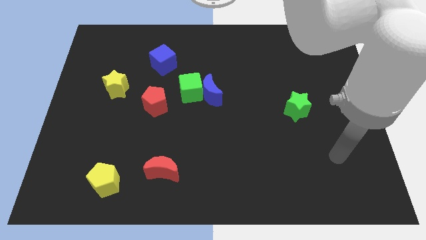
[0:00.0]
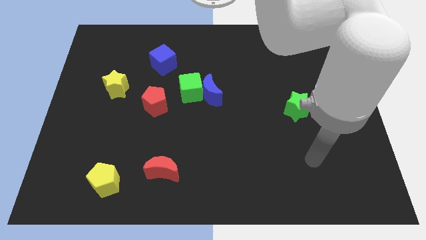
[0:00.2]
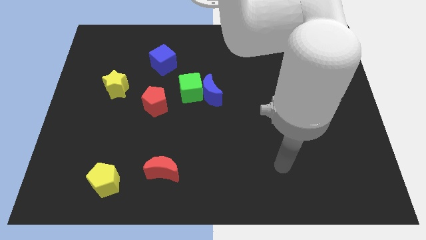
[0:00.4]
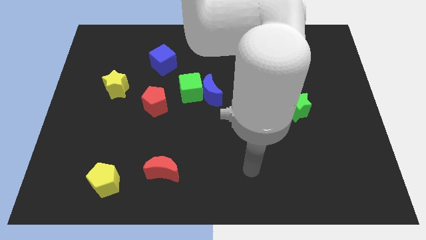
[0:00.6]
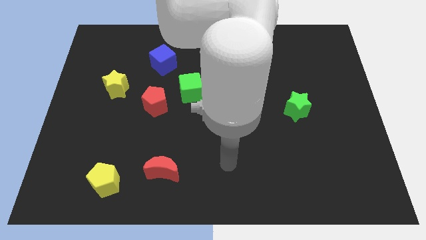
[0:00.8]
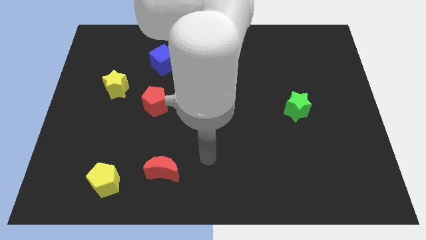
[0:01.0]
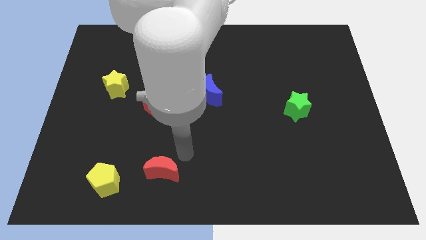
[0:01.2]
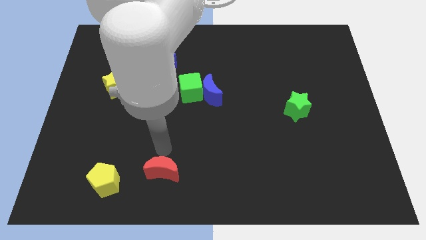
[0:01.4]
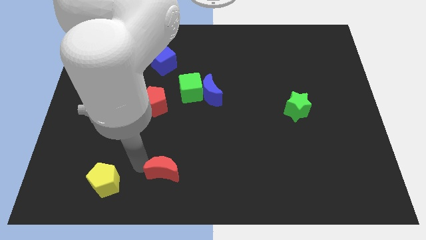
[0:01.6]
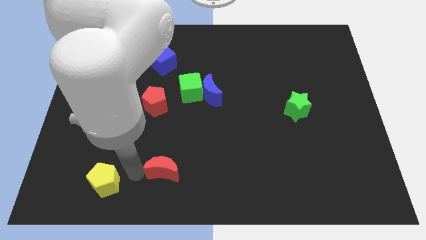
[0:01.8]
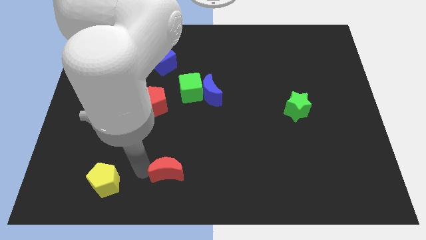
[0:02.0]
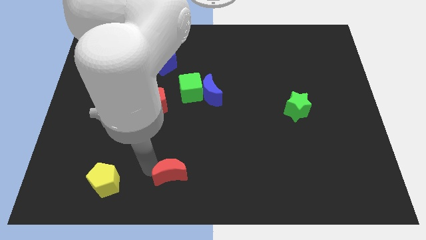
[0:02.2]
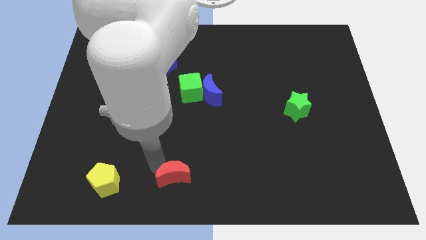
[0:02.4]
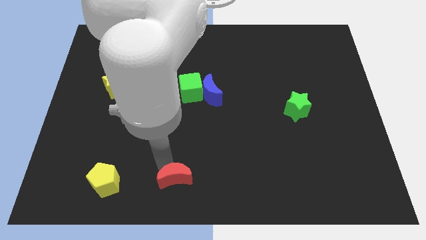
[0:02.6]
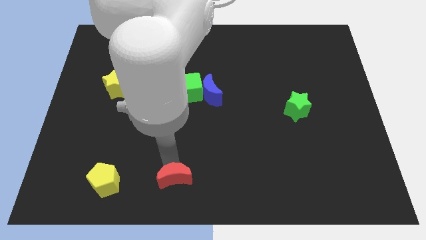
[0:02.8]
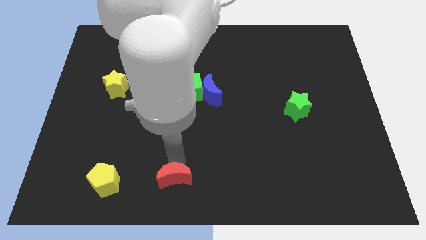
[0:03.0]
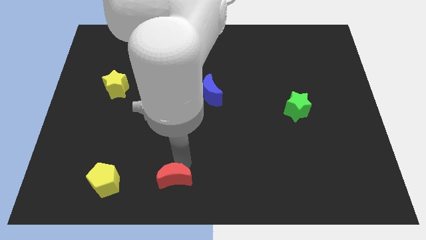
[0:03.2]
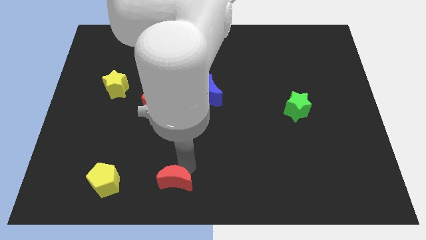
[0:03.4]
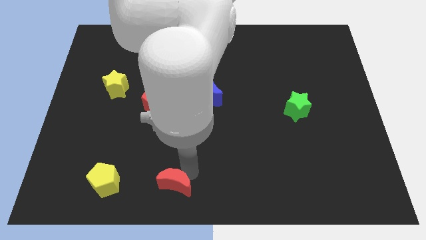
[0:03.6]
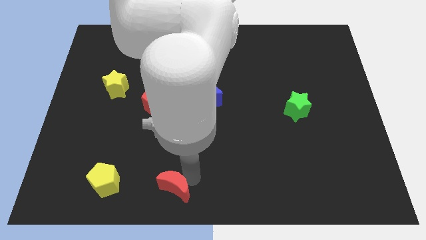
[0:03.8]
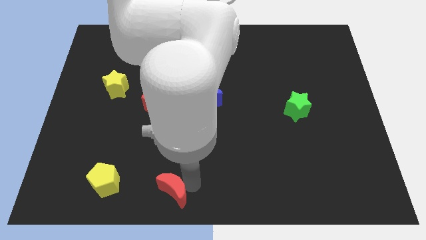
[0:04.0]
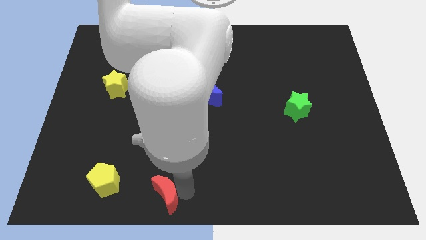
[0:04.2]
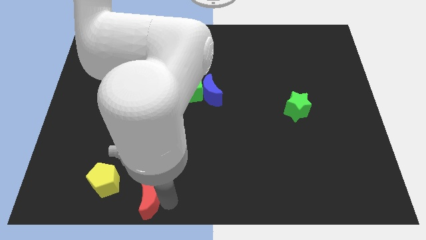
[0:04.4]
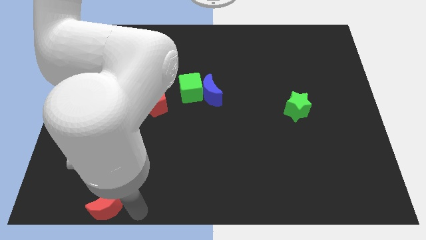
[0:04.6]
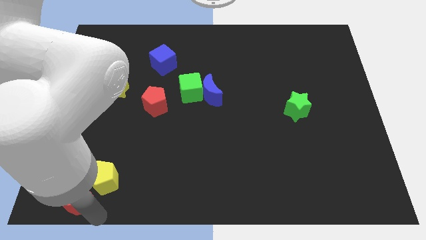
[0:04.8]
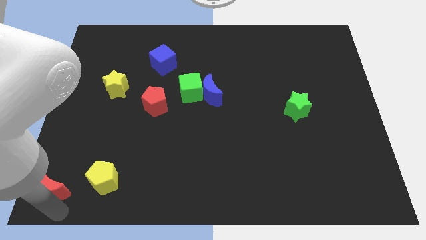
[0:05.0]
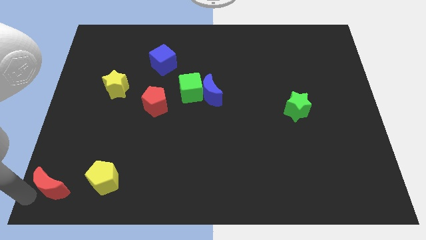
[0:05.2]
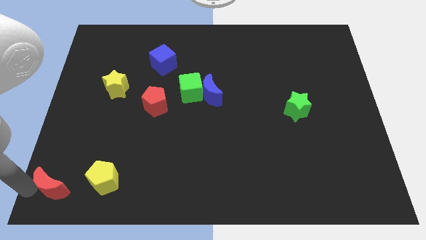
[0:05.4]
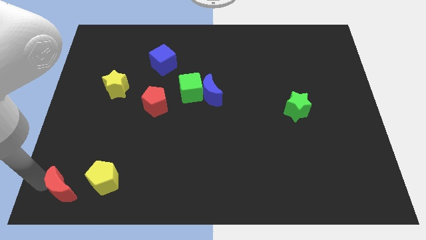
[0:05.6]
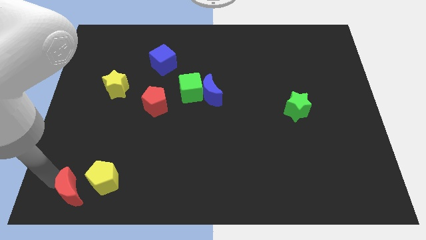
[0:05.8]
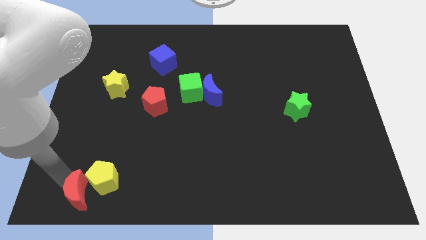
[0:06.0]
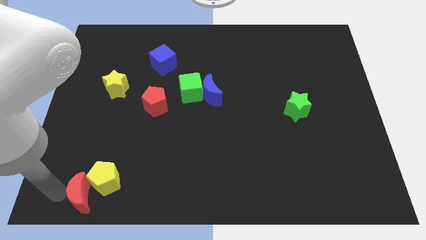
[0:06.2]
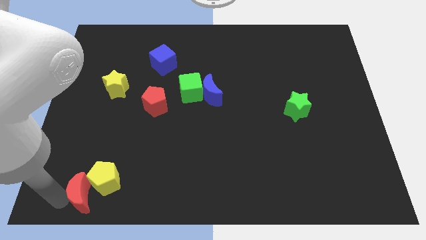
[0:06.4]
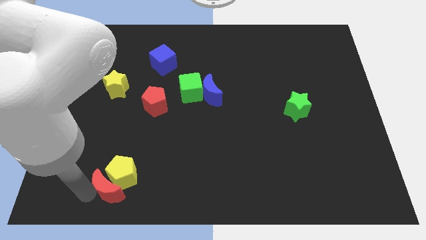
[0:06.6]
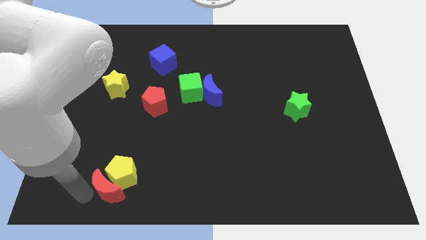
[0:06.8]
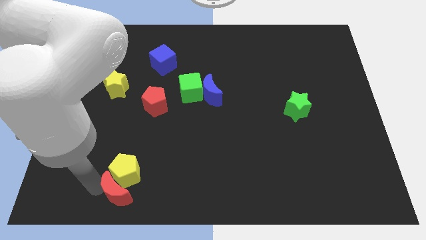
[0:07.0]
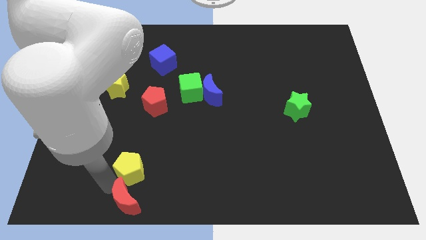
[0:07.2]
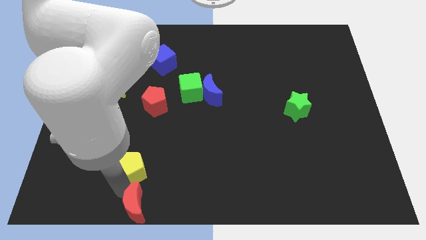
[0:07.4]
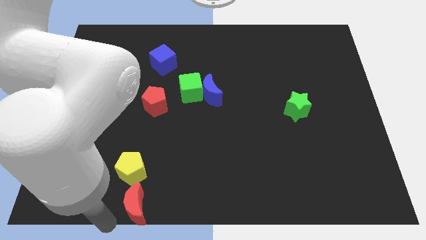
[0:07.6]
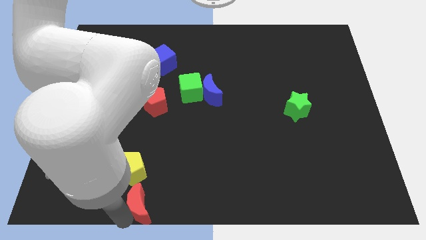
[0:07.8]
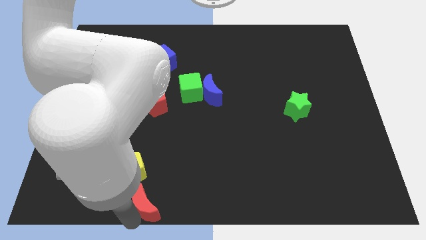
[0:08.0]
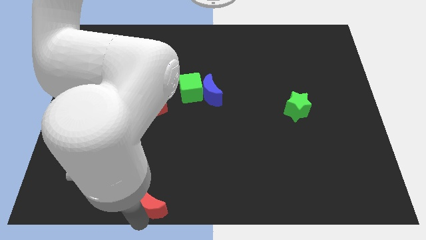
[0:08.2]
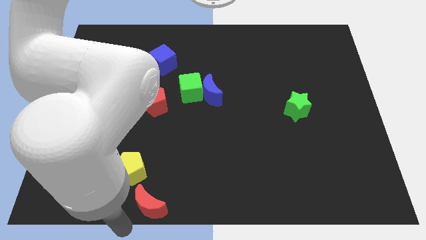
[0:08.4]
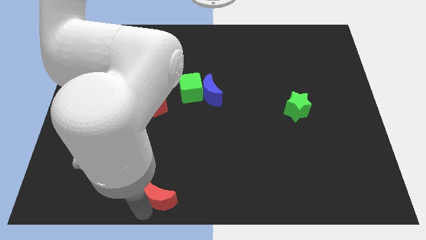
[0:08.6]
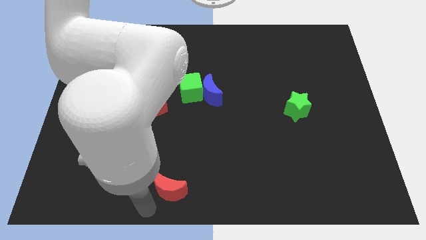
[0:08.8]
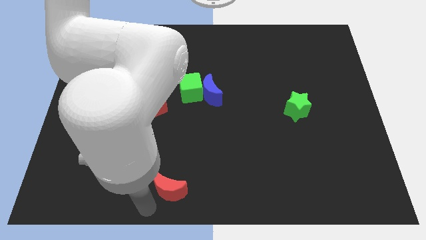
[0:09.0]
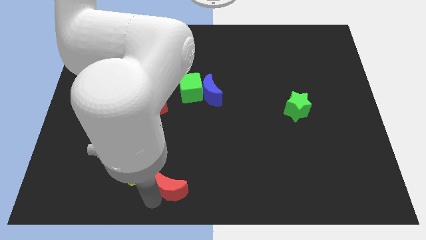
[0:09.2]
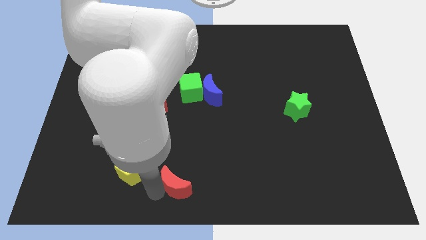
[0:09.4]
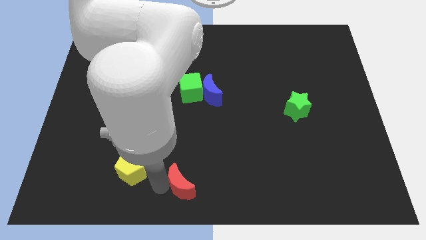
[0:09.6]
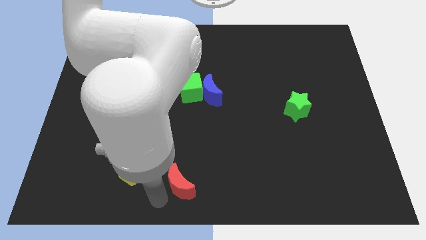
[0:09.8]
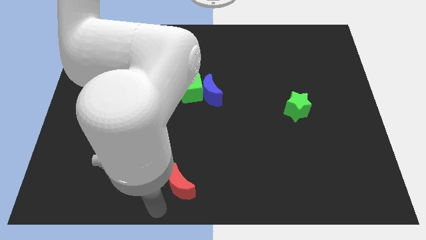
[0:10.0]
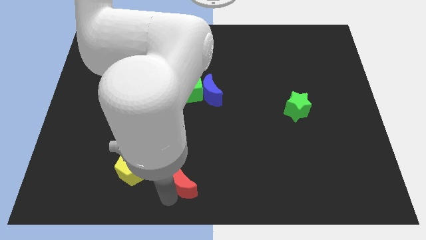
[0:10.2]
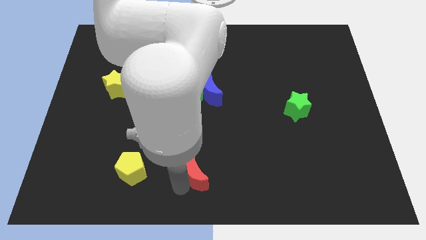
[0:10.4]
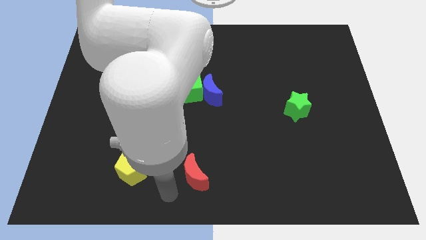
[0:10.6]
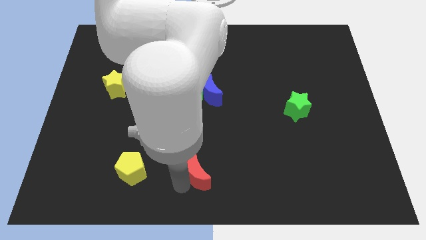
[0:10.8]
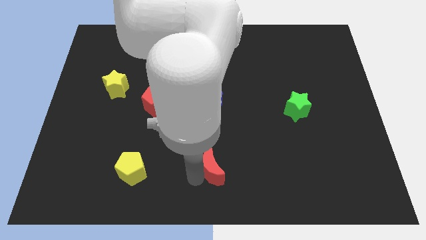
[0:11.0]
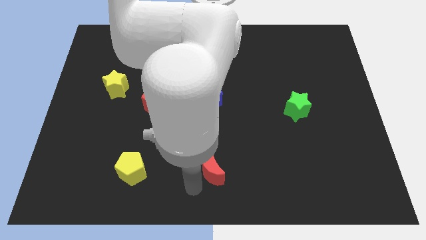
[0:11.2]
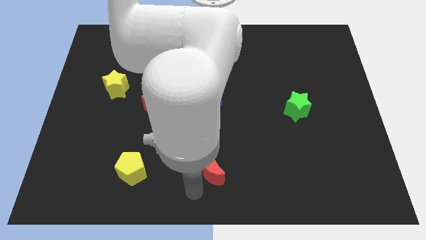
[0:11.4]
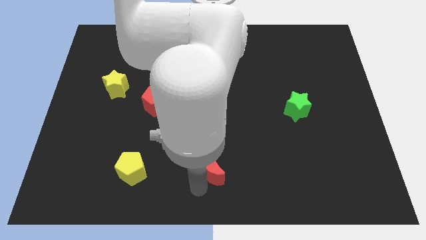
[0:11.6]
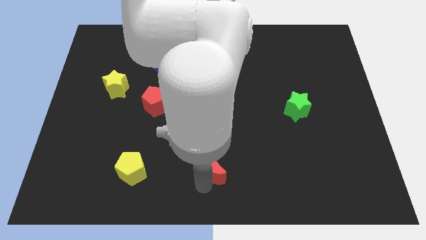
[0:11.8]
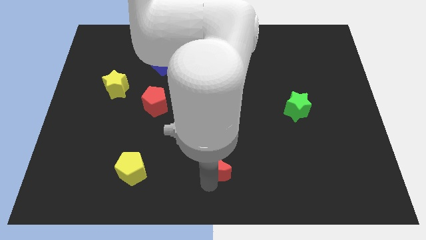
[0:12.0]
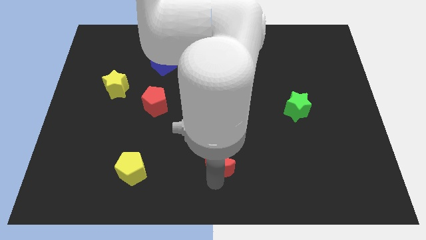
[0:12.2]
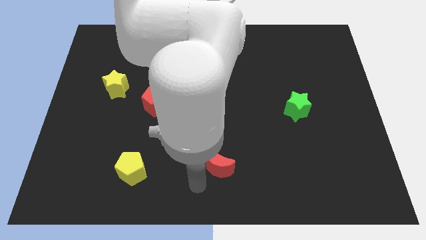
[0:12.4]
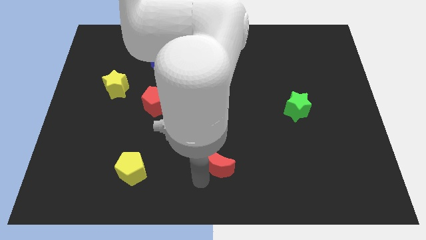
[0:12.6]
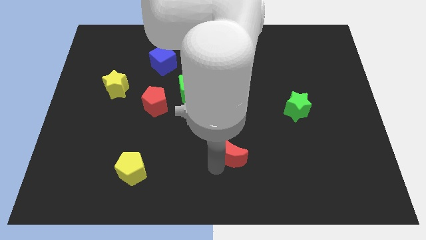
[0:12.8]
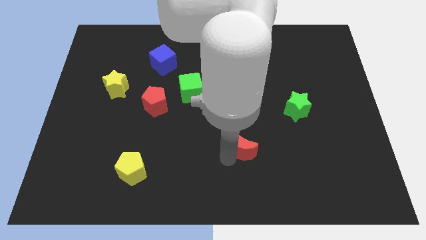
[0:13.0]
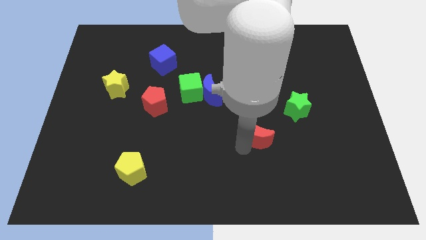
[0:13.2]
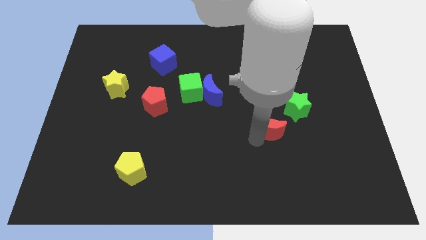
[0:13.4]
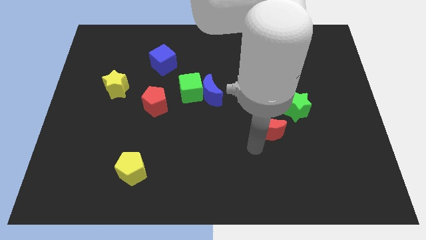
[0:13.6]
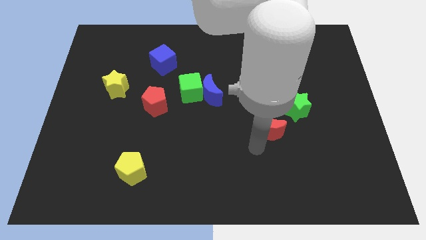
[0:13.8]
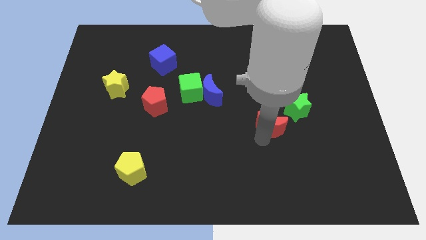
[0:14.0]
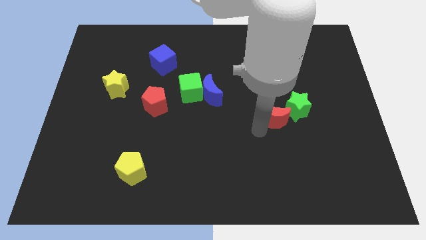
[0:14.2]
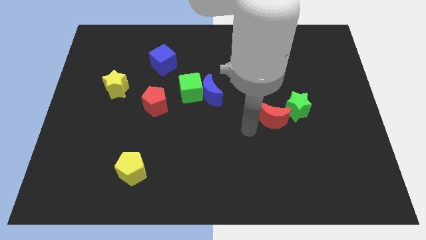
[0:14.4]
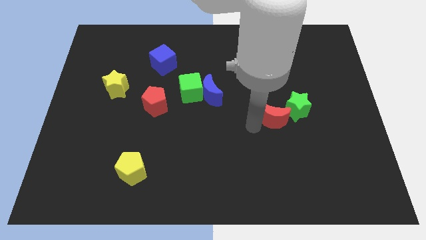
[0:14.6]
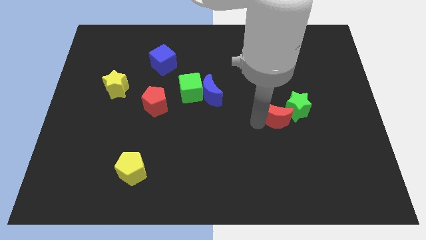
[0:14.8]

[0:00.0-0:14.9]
push the red moon next to the green star

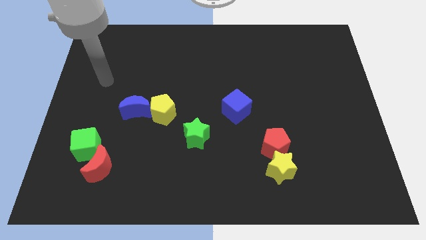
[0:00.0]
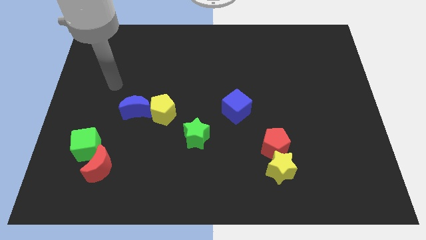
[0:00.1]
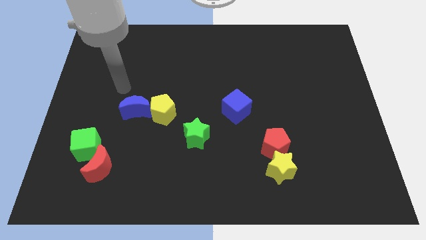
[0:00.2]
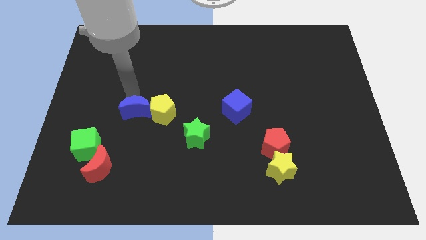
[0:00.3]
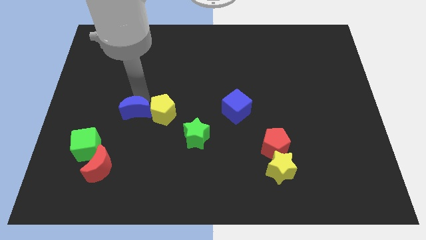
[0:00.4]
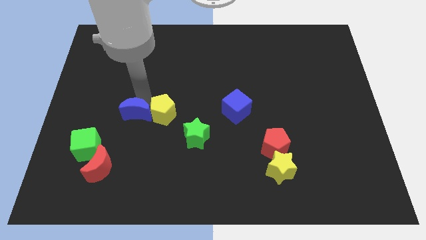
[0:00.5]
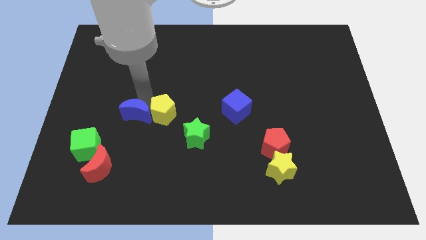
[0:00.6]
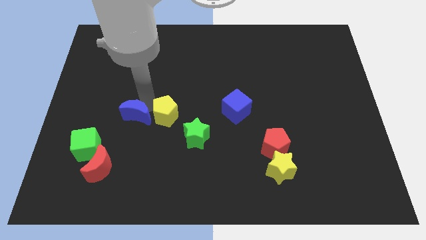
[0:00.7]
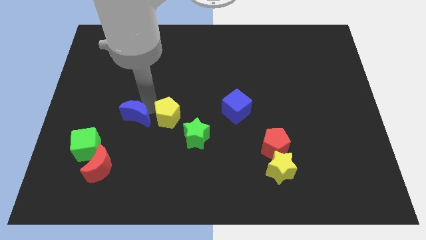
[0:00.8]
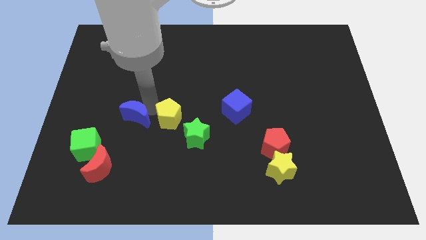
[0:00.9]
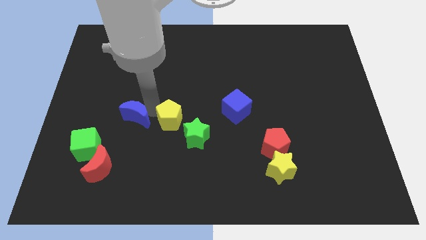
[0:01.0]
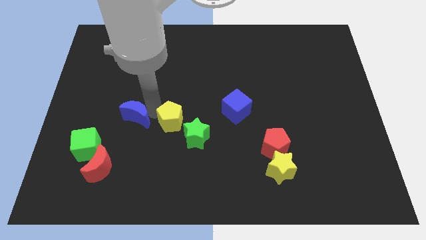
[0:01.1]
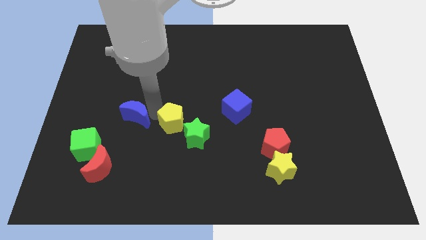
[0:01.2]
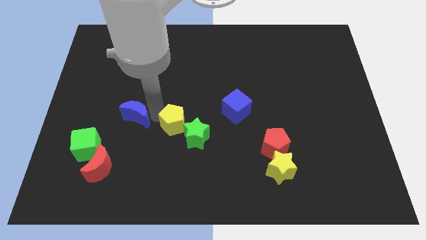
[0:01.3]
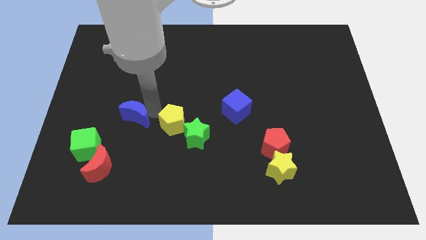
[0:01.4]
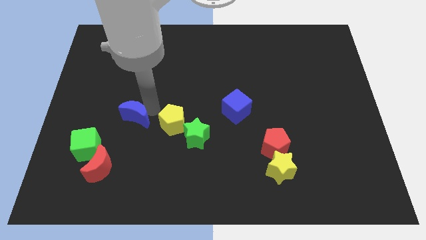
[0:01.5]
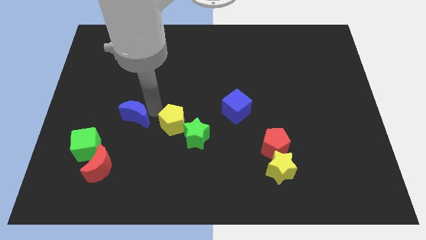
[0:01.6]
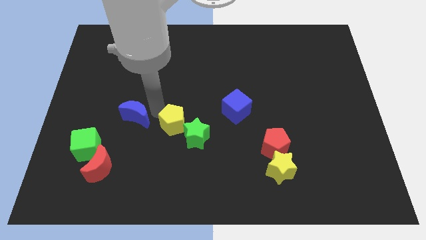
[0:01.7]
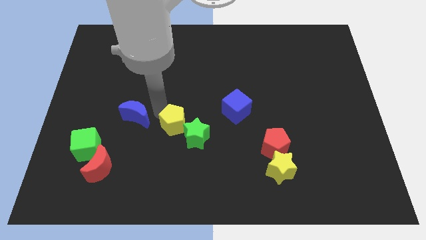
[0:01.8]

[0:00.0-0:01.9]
push the yellow pentagon next to the green star
